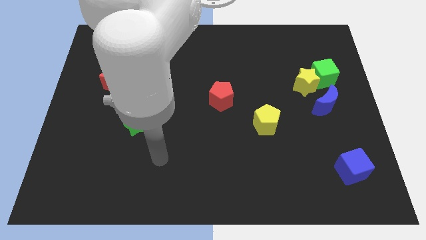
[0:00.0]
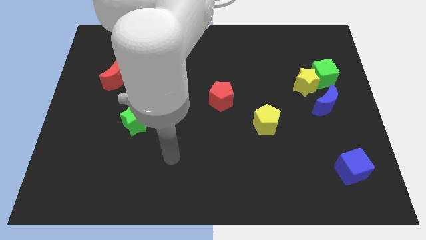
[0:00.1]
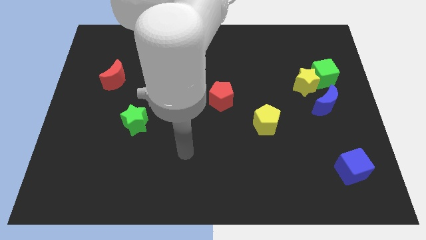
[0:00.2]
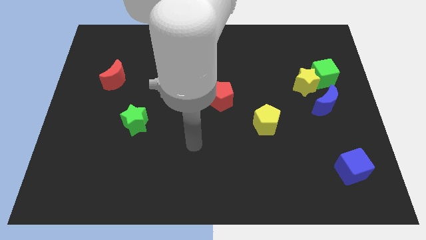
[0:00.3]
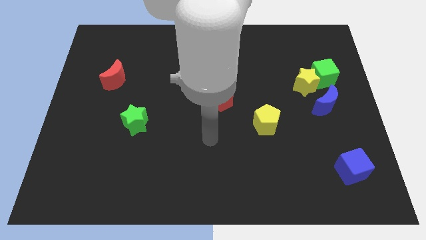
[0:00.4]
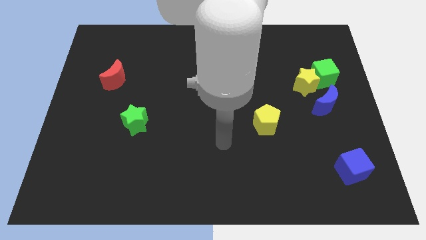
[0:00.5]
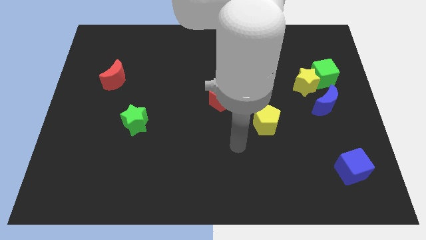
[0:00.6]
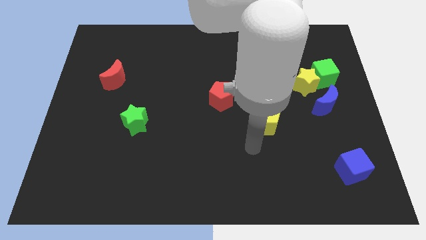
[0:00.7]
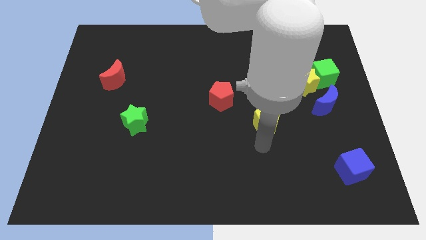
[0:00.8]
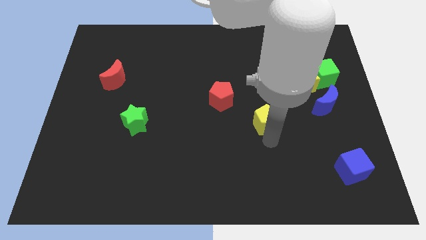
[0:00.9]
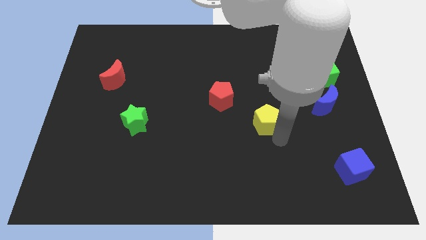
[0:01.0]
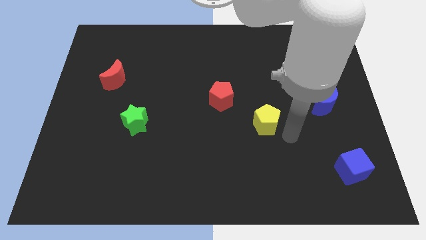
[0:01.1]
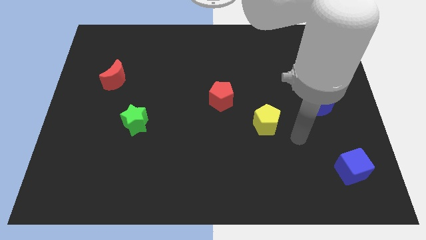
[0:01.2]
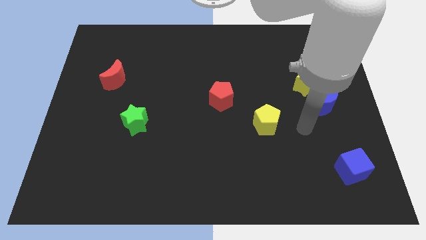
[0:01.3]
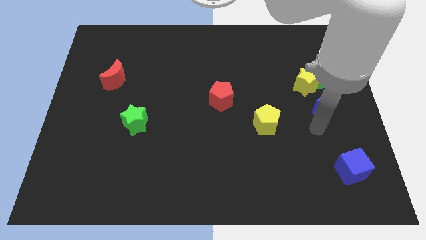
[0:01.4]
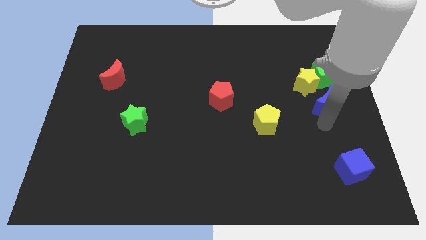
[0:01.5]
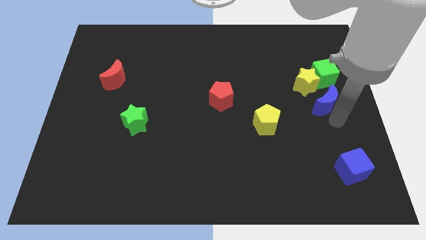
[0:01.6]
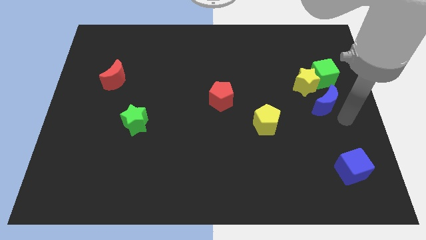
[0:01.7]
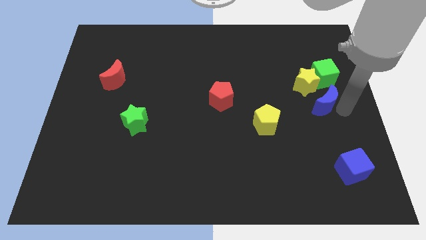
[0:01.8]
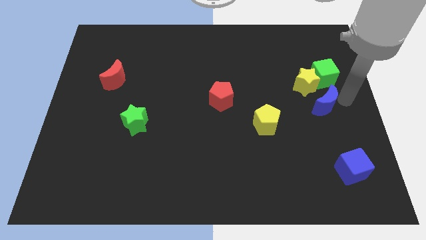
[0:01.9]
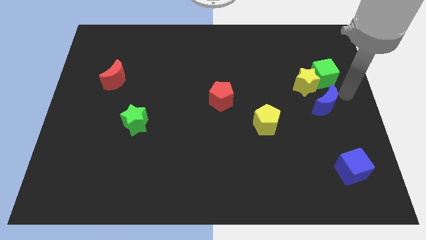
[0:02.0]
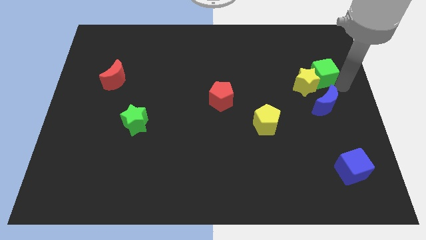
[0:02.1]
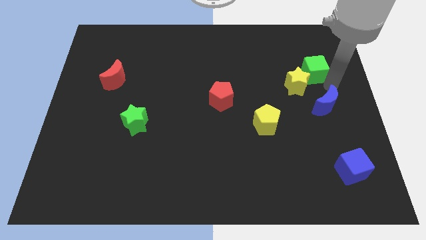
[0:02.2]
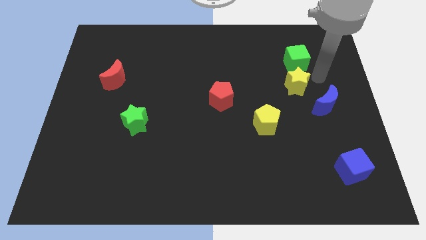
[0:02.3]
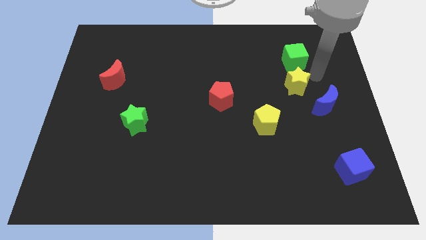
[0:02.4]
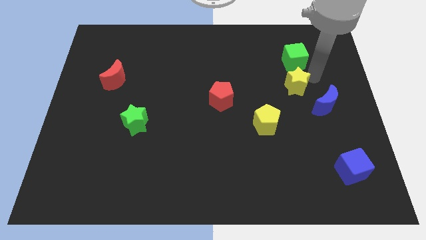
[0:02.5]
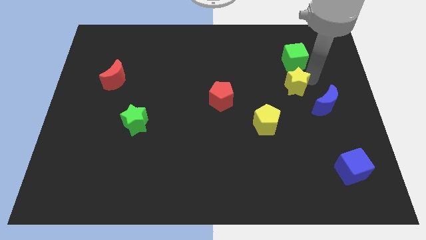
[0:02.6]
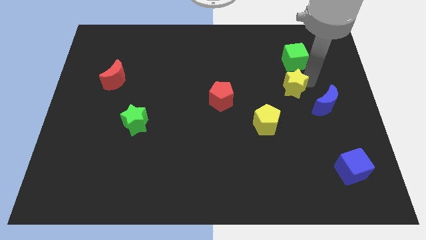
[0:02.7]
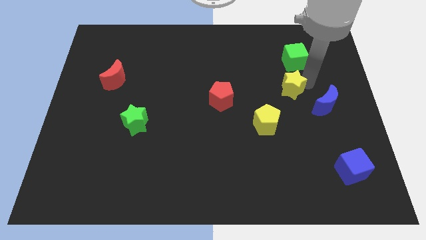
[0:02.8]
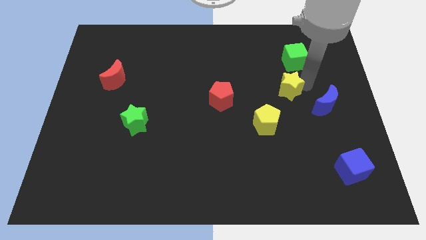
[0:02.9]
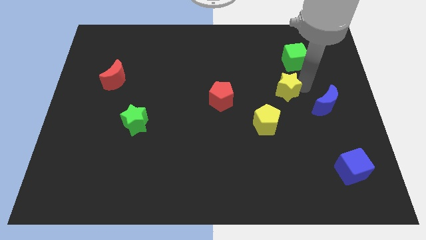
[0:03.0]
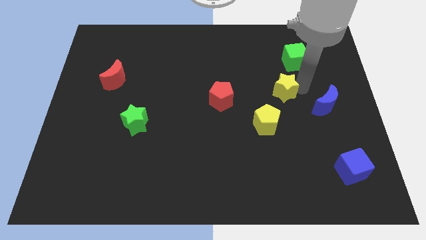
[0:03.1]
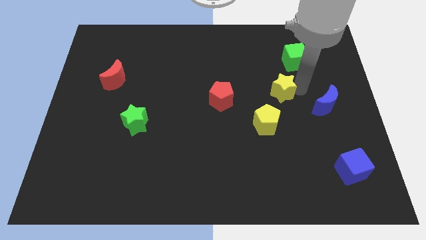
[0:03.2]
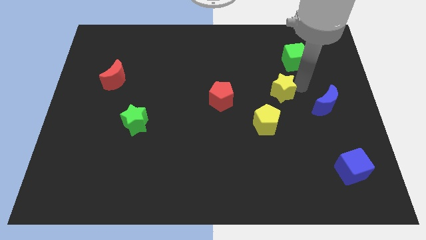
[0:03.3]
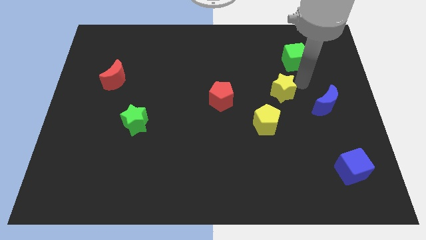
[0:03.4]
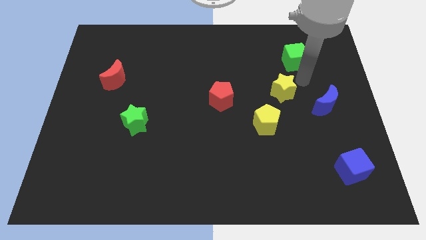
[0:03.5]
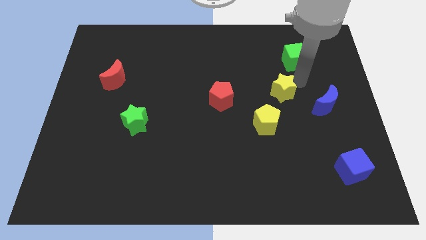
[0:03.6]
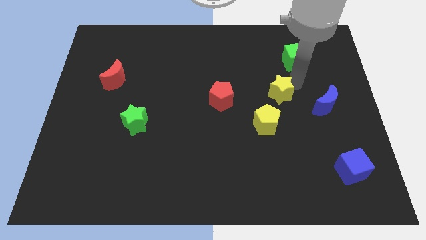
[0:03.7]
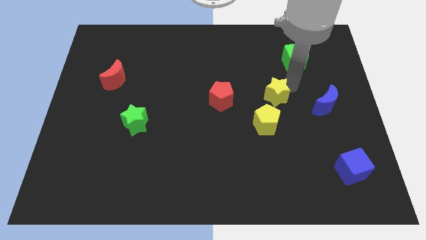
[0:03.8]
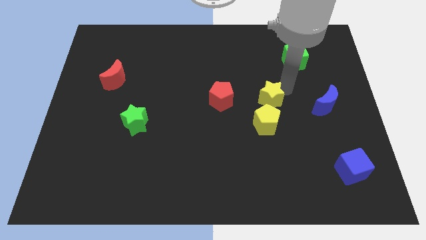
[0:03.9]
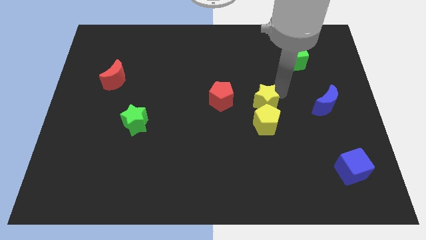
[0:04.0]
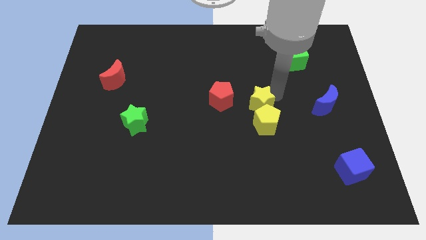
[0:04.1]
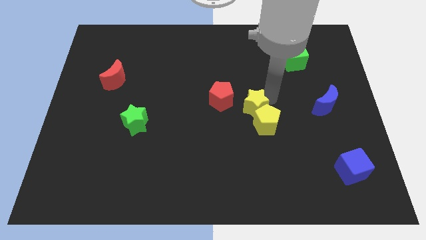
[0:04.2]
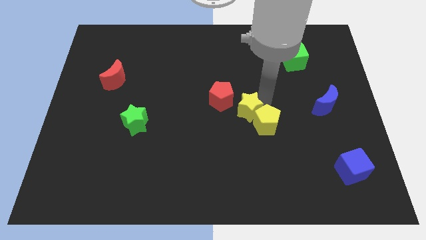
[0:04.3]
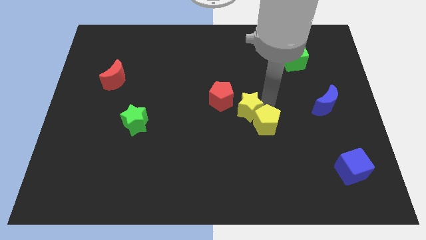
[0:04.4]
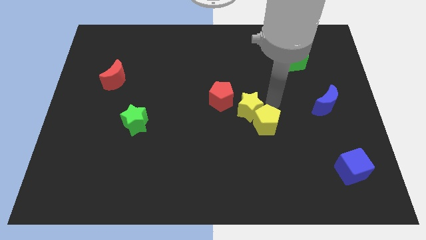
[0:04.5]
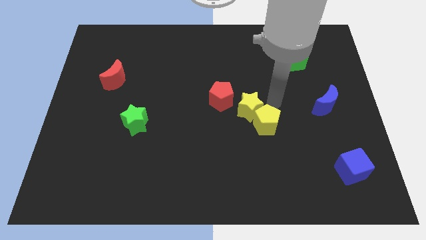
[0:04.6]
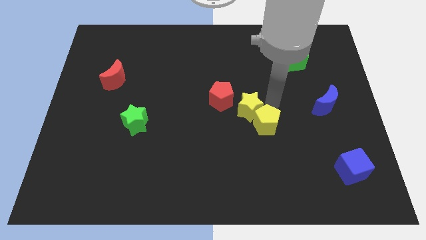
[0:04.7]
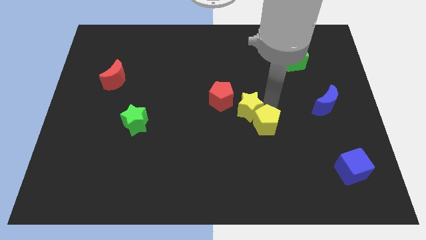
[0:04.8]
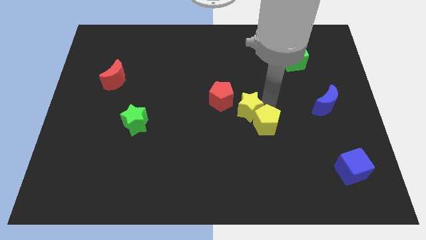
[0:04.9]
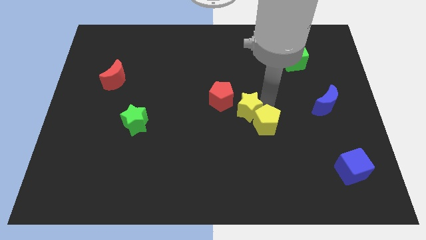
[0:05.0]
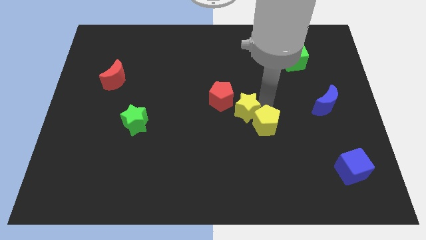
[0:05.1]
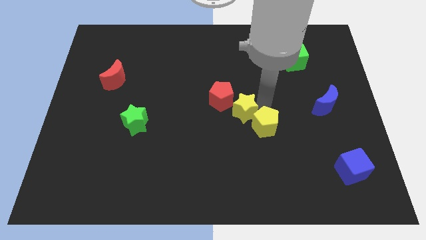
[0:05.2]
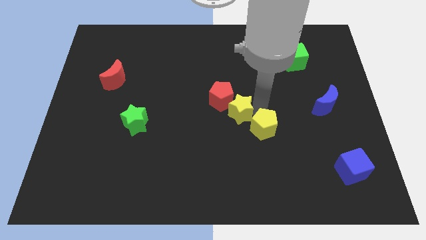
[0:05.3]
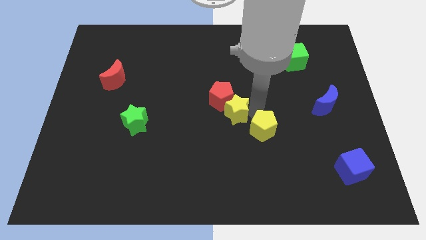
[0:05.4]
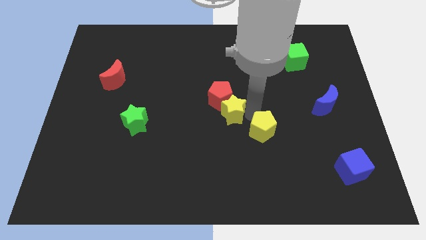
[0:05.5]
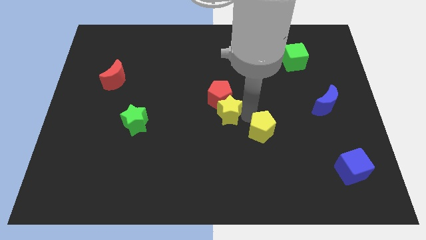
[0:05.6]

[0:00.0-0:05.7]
push the yellow star to the bottom left of the red pentagon
